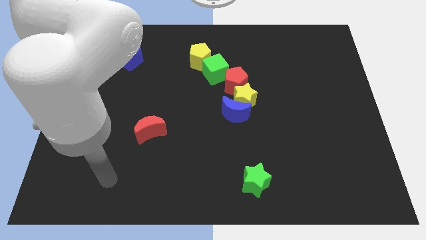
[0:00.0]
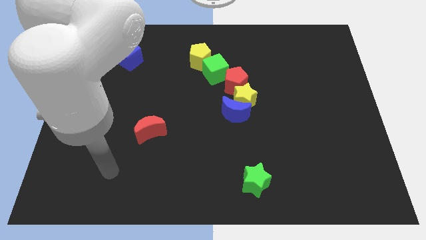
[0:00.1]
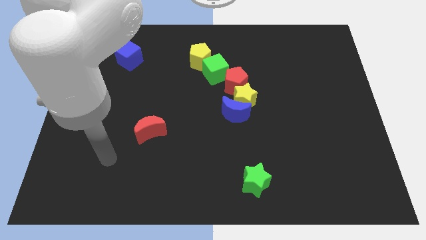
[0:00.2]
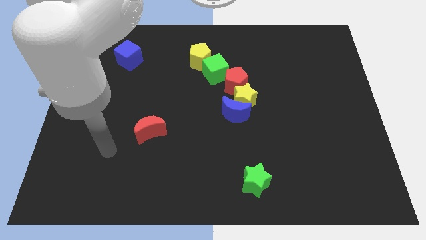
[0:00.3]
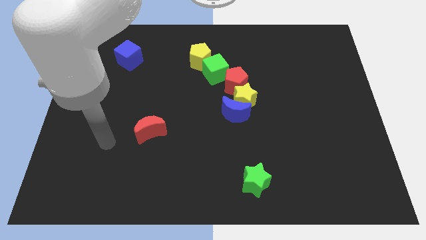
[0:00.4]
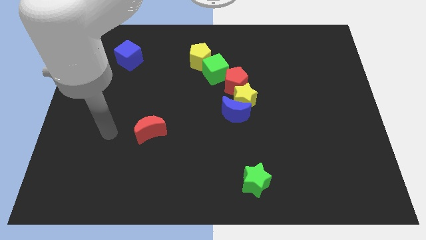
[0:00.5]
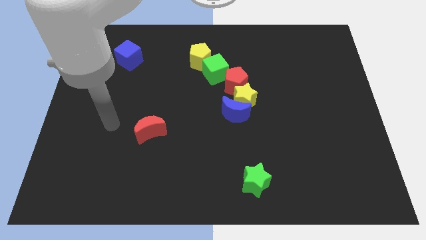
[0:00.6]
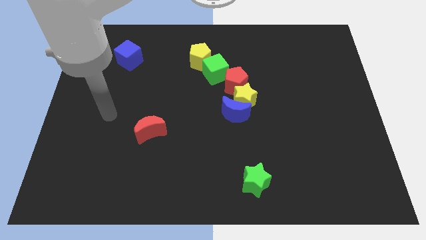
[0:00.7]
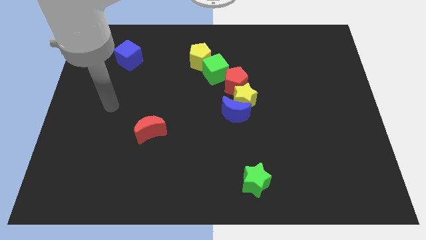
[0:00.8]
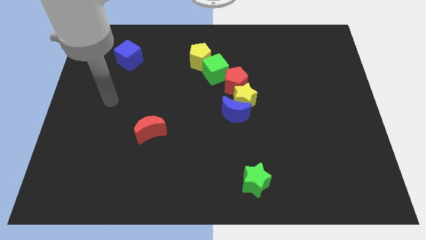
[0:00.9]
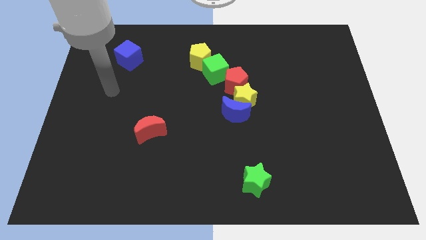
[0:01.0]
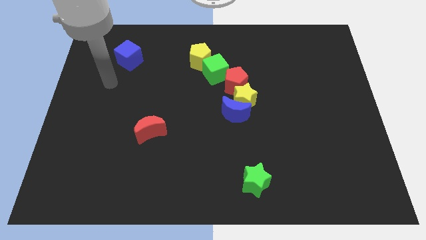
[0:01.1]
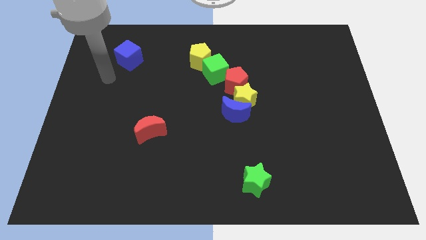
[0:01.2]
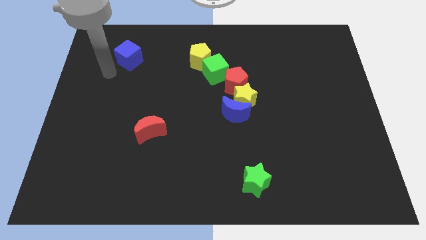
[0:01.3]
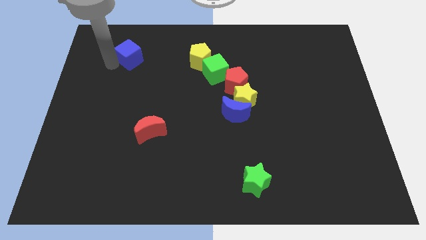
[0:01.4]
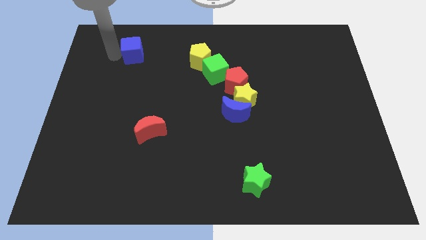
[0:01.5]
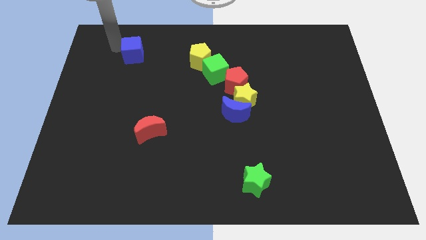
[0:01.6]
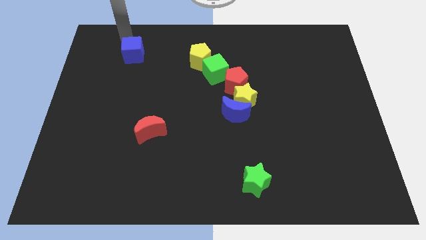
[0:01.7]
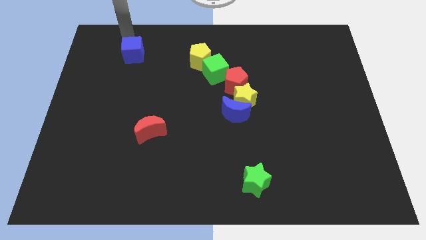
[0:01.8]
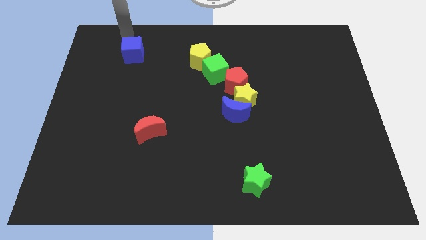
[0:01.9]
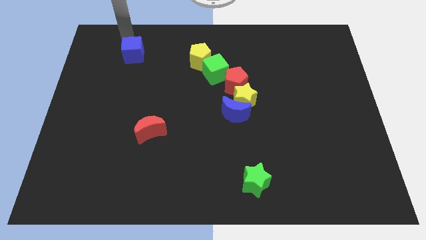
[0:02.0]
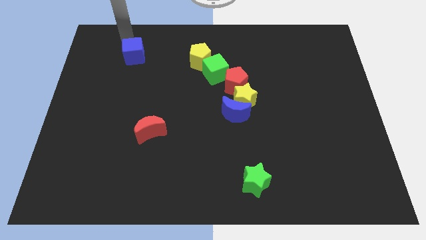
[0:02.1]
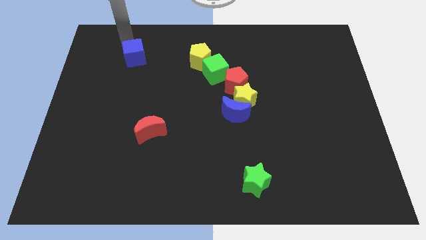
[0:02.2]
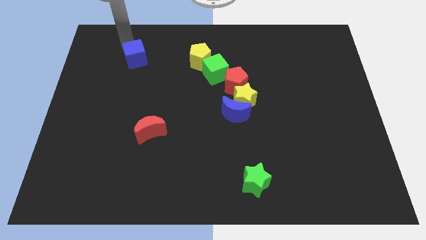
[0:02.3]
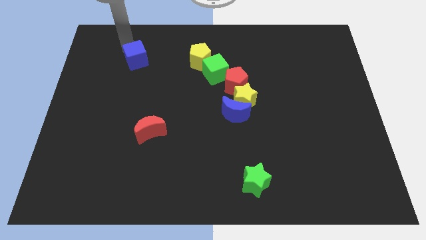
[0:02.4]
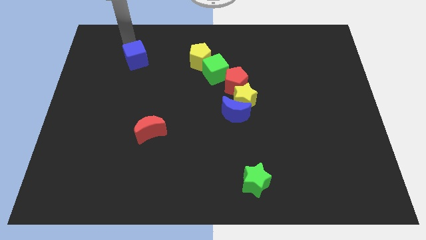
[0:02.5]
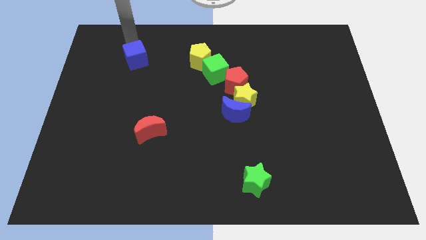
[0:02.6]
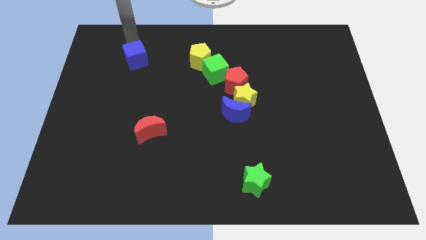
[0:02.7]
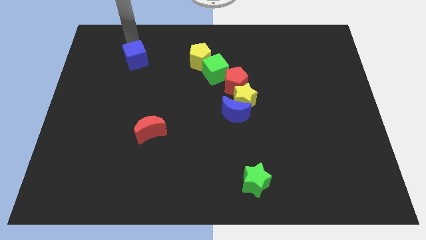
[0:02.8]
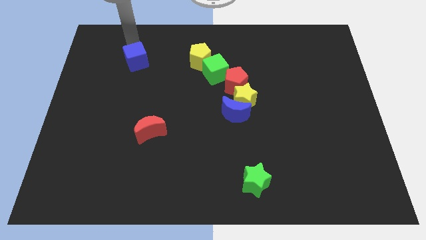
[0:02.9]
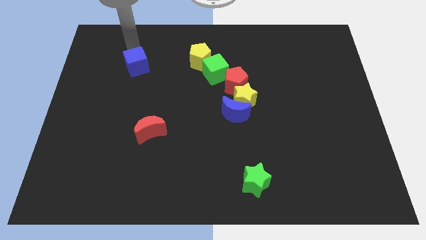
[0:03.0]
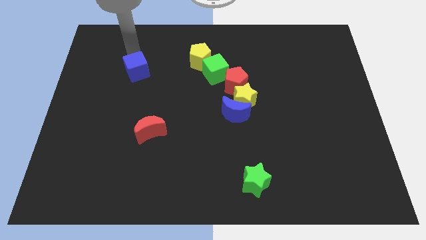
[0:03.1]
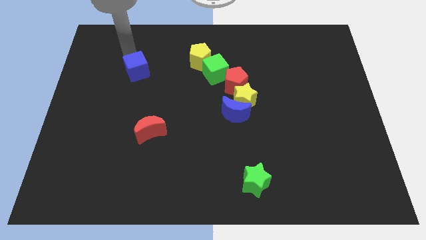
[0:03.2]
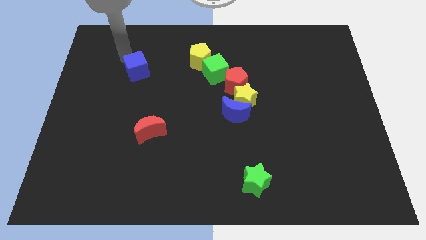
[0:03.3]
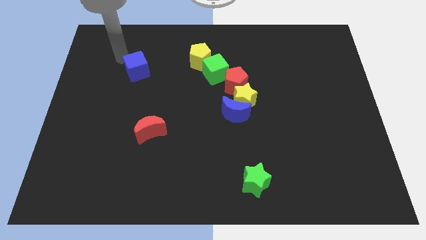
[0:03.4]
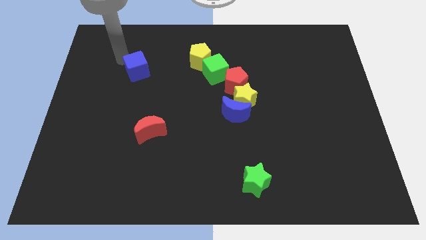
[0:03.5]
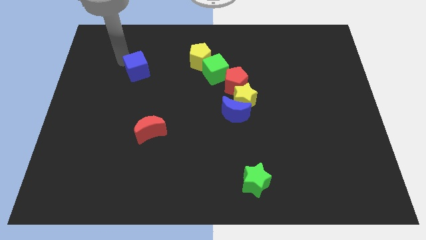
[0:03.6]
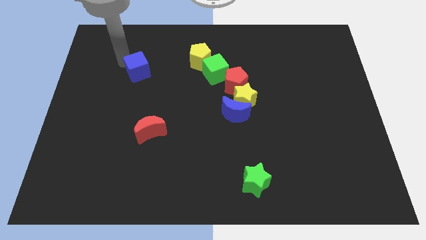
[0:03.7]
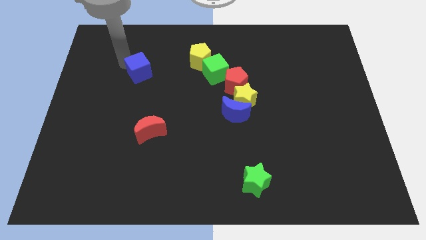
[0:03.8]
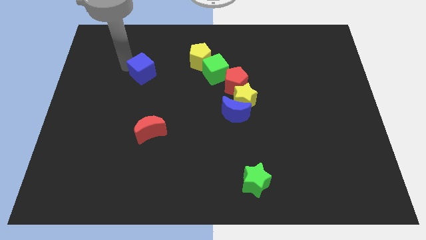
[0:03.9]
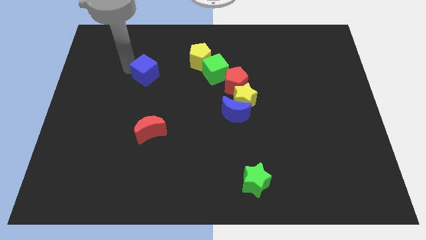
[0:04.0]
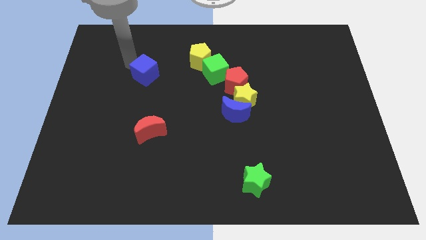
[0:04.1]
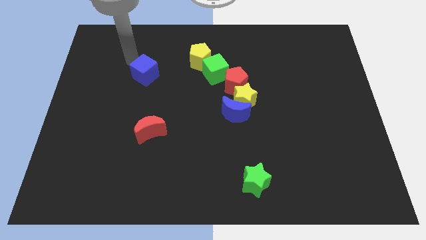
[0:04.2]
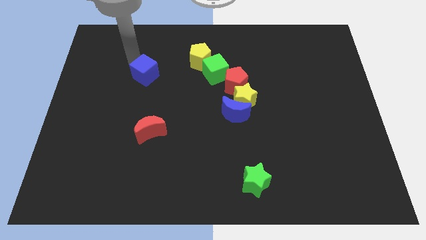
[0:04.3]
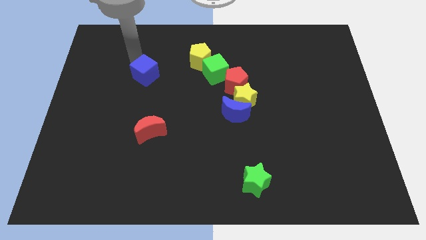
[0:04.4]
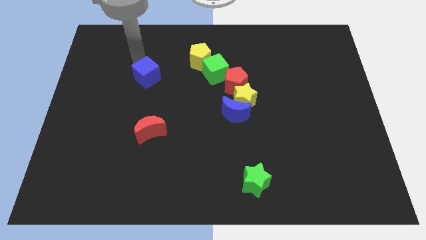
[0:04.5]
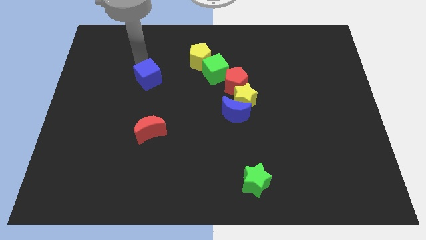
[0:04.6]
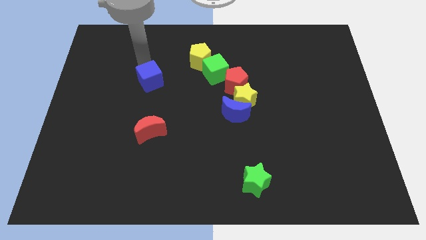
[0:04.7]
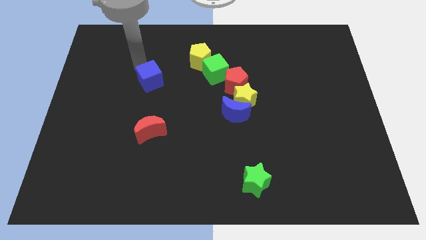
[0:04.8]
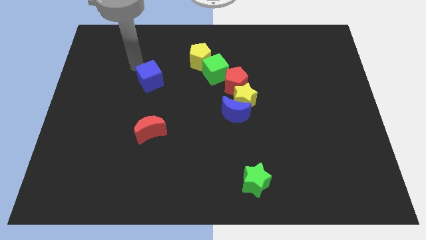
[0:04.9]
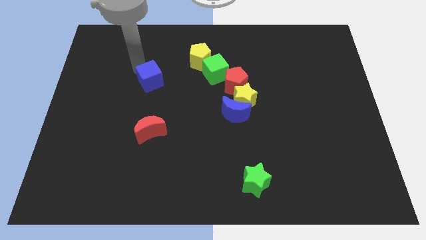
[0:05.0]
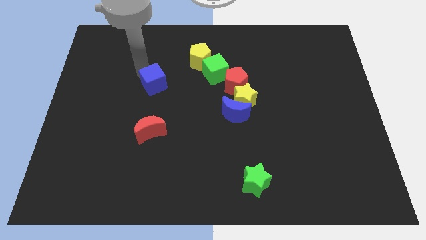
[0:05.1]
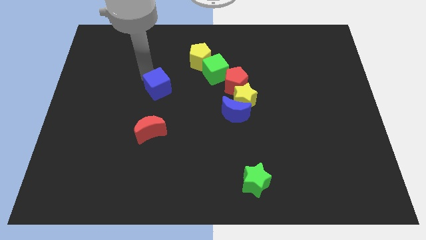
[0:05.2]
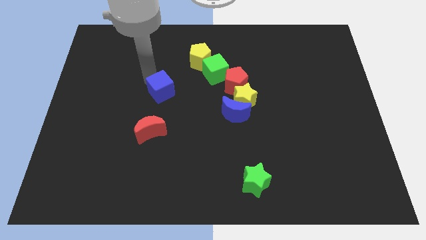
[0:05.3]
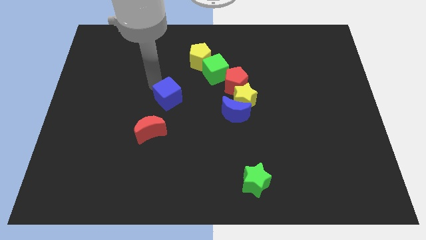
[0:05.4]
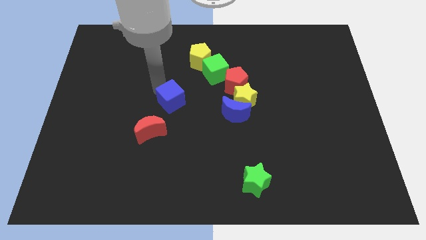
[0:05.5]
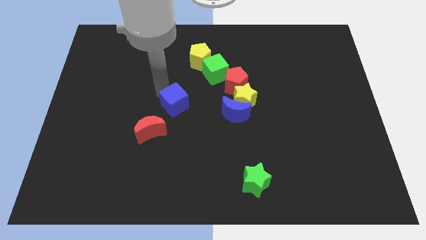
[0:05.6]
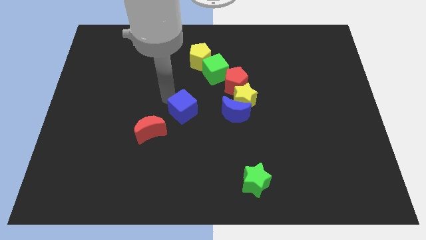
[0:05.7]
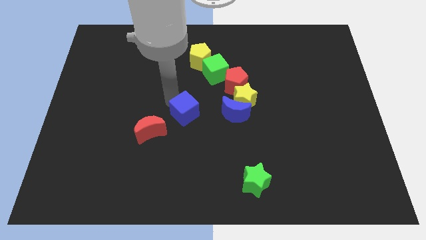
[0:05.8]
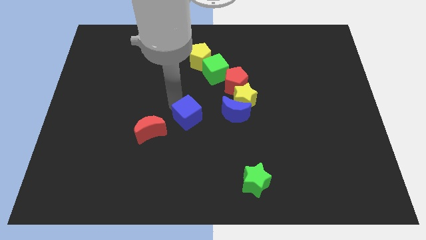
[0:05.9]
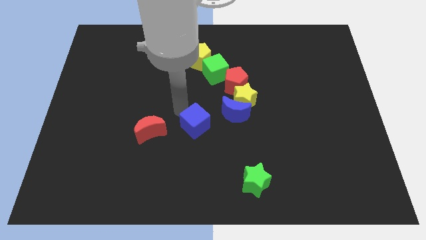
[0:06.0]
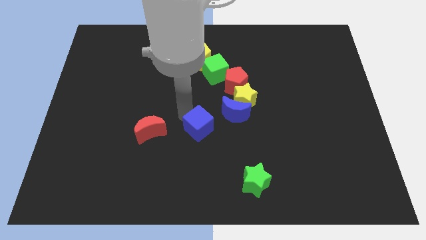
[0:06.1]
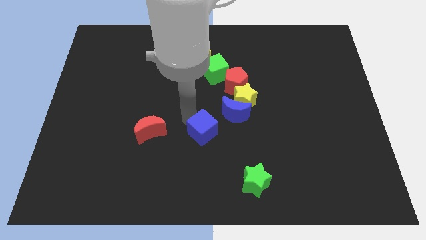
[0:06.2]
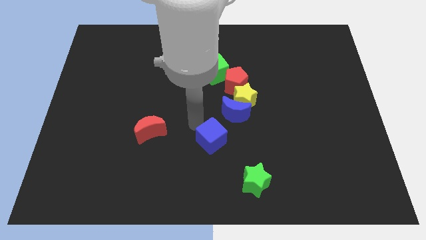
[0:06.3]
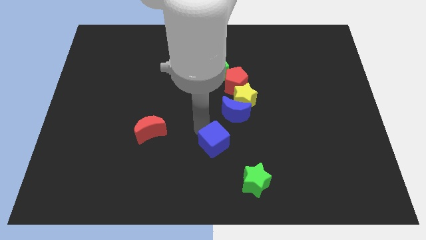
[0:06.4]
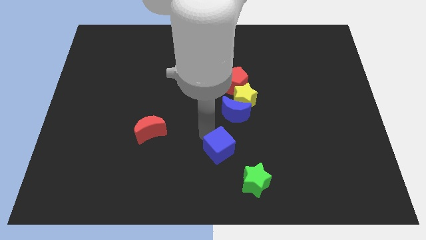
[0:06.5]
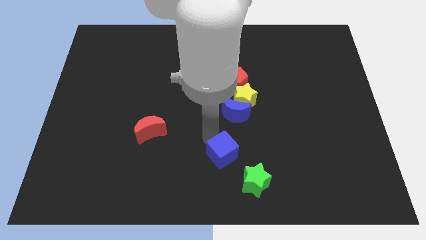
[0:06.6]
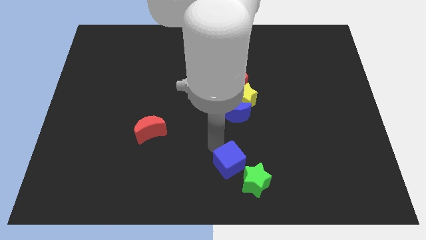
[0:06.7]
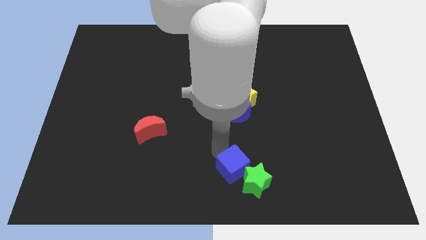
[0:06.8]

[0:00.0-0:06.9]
push the blue cube next to the green star

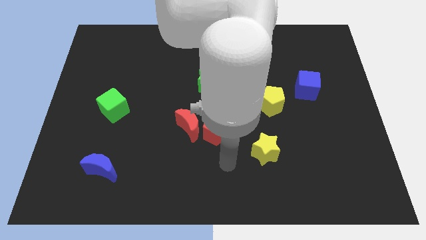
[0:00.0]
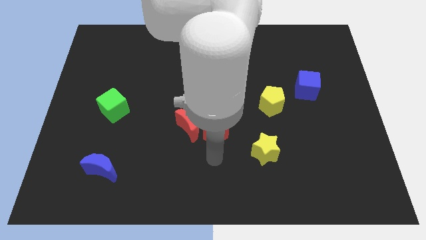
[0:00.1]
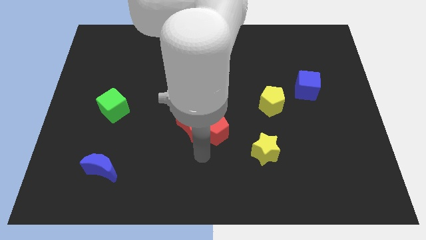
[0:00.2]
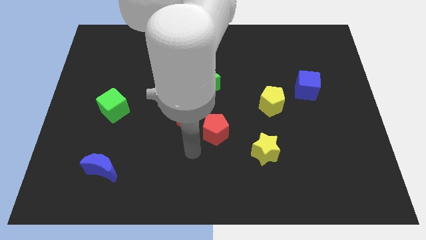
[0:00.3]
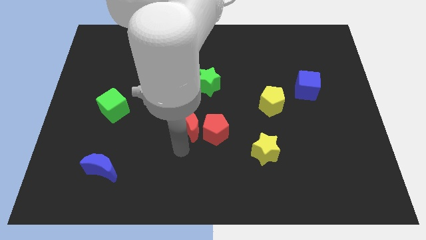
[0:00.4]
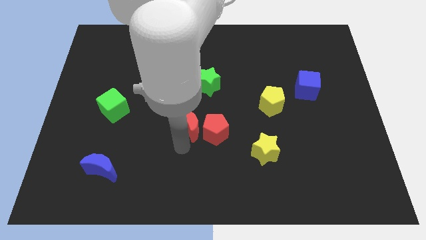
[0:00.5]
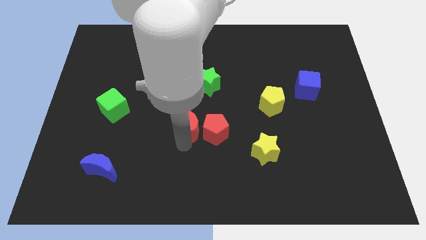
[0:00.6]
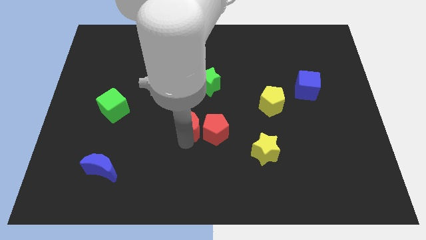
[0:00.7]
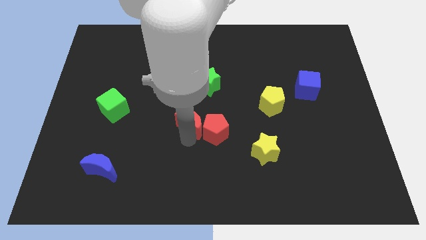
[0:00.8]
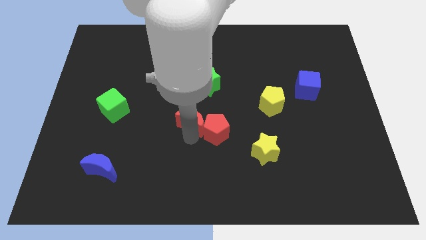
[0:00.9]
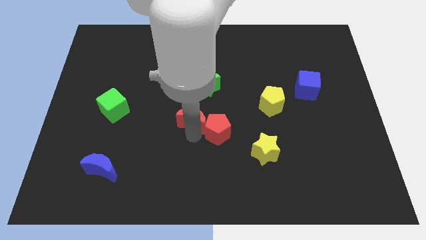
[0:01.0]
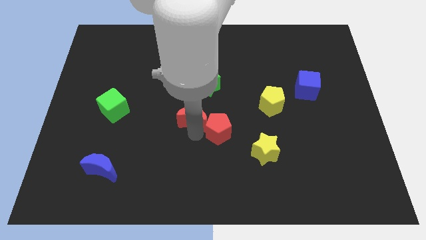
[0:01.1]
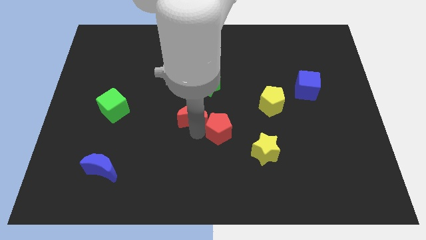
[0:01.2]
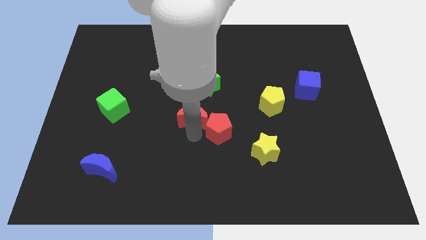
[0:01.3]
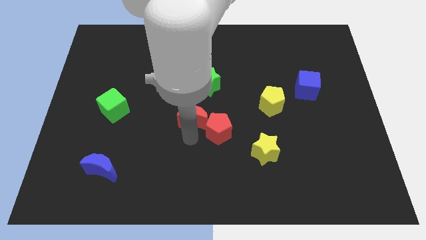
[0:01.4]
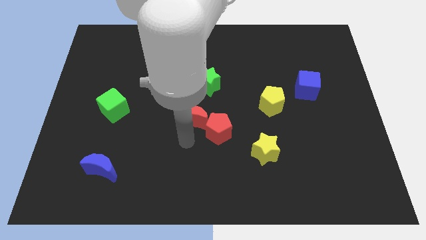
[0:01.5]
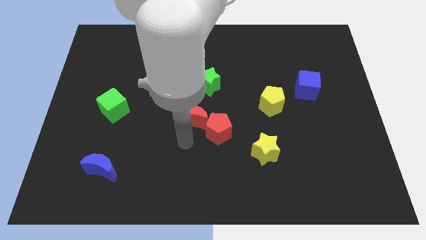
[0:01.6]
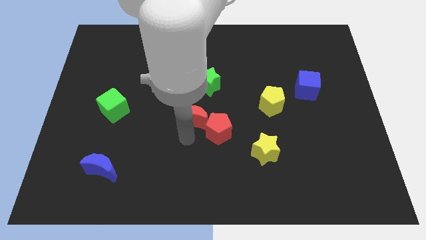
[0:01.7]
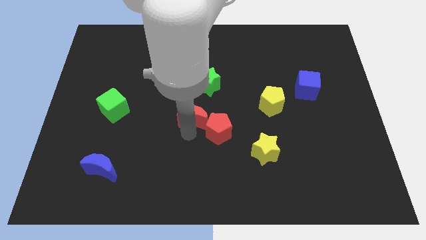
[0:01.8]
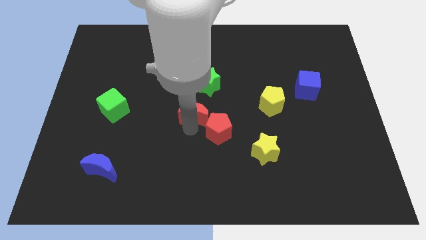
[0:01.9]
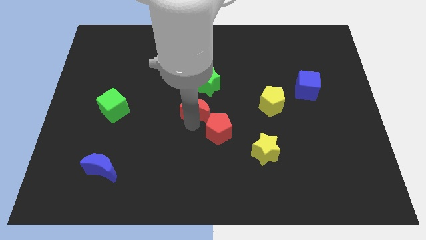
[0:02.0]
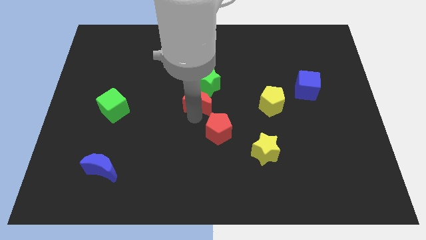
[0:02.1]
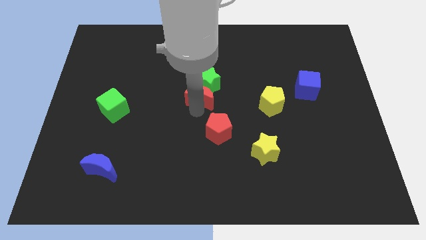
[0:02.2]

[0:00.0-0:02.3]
put the red moon to the green star
